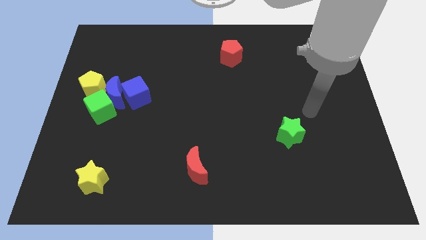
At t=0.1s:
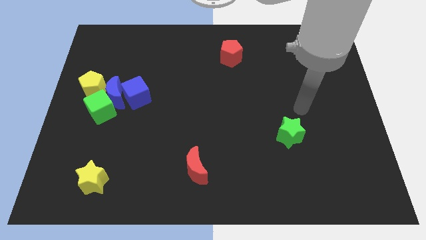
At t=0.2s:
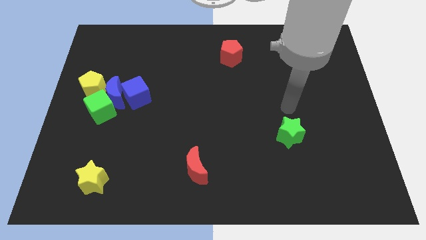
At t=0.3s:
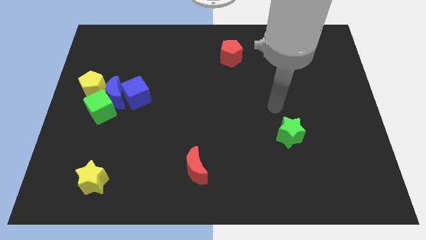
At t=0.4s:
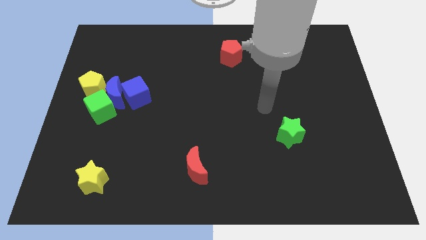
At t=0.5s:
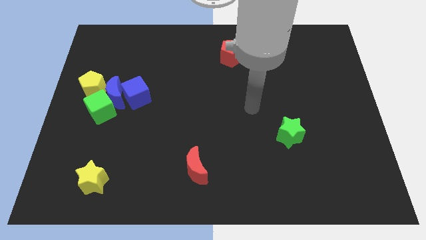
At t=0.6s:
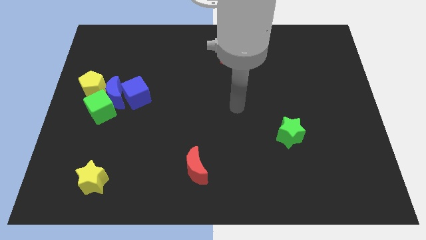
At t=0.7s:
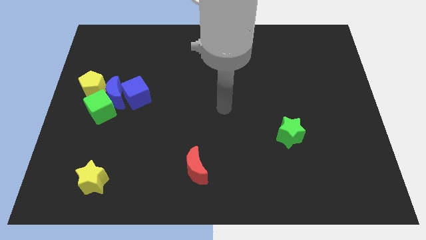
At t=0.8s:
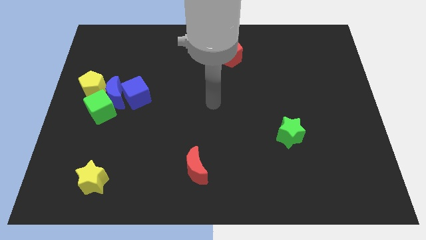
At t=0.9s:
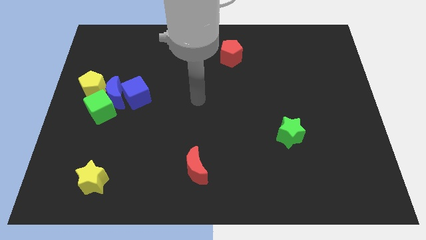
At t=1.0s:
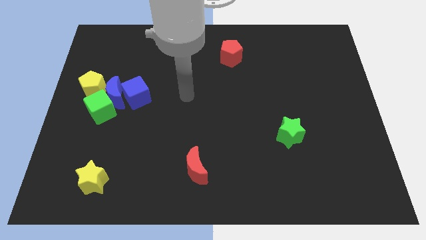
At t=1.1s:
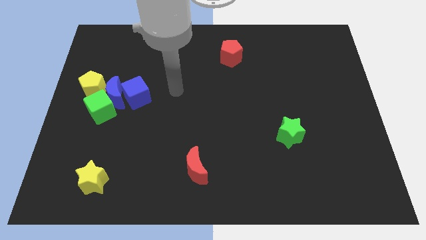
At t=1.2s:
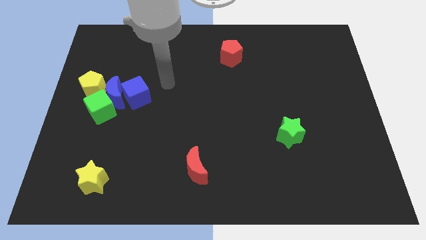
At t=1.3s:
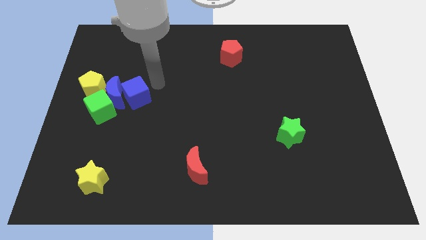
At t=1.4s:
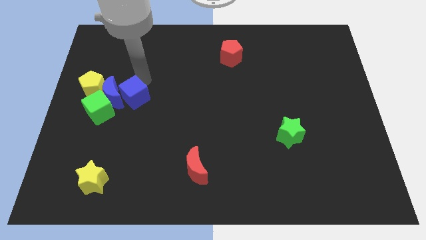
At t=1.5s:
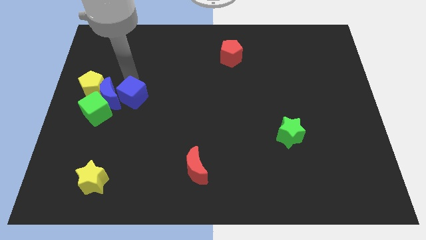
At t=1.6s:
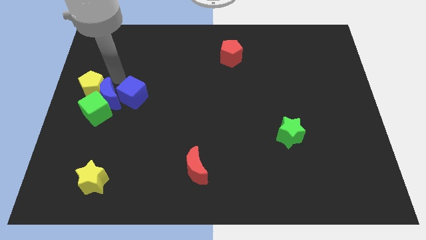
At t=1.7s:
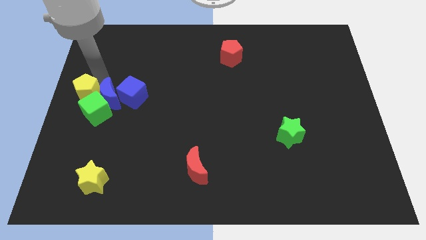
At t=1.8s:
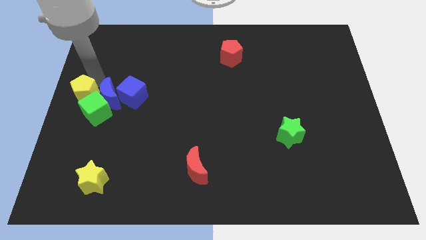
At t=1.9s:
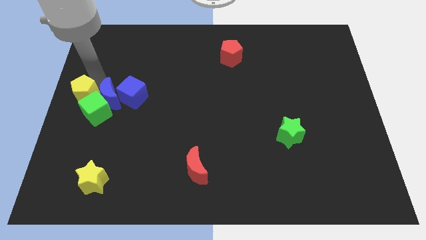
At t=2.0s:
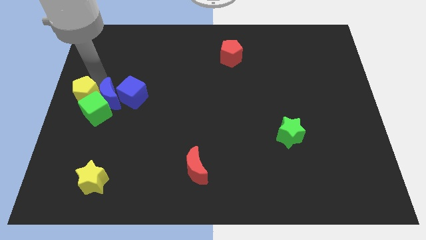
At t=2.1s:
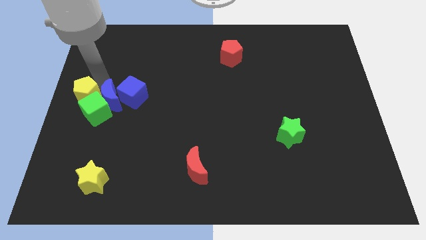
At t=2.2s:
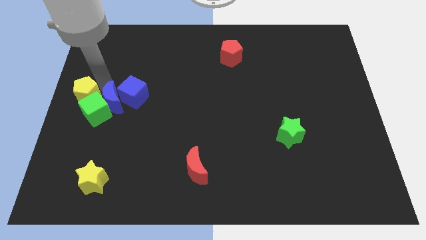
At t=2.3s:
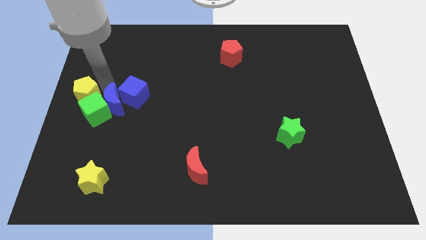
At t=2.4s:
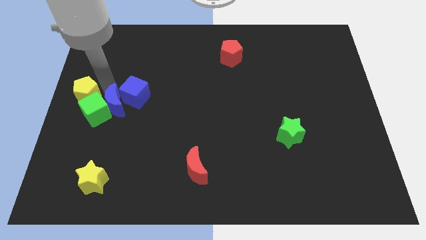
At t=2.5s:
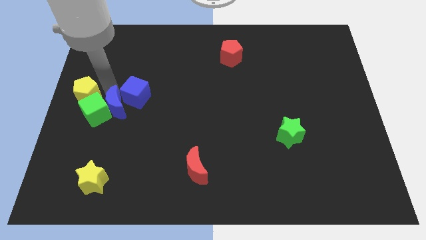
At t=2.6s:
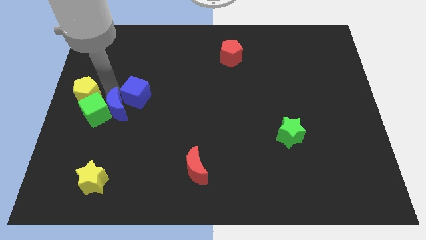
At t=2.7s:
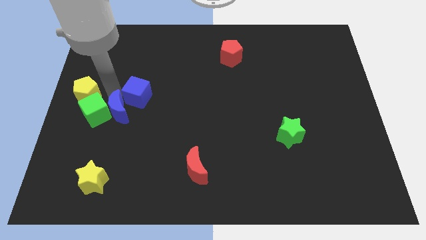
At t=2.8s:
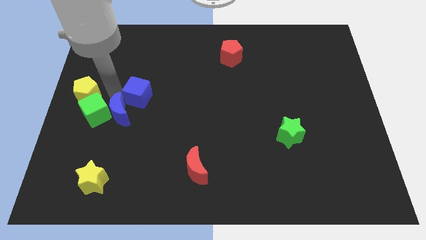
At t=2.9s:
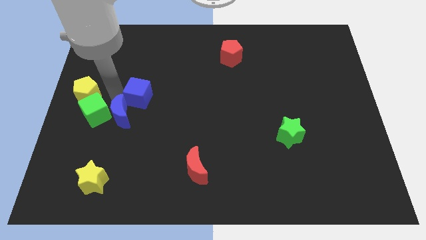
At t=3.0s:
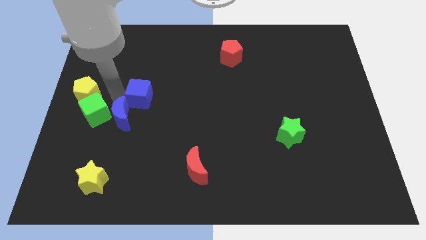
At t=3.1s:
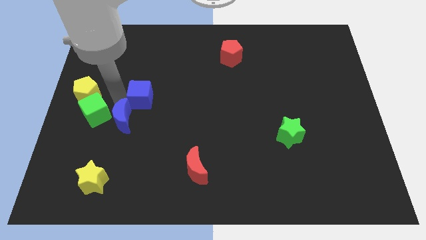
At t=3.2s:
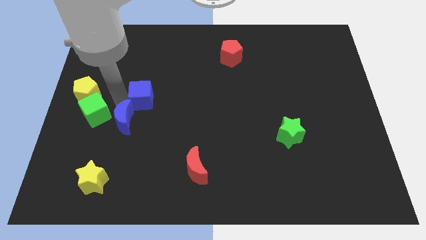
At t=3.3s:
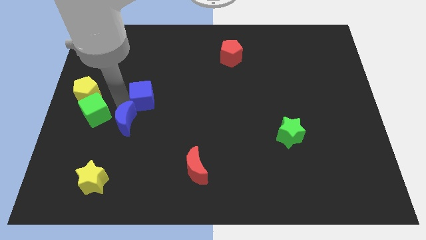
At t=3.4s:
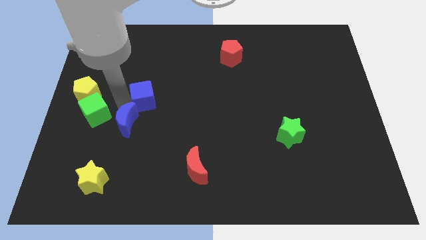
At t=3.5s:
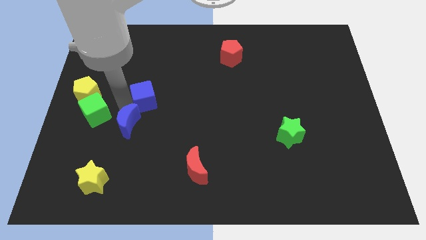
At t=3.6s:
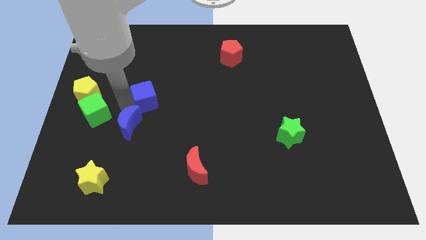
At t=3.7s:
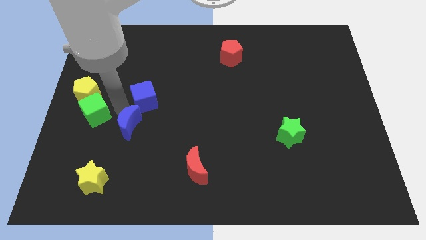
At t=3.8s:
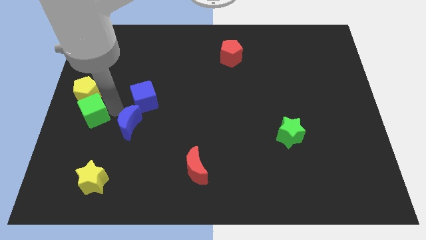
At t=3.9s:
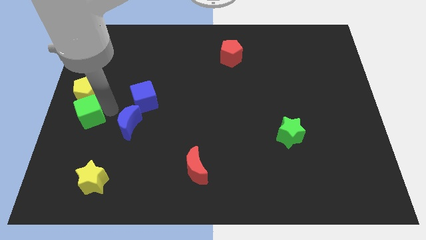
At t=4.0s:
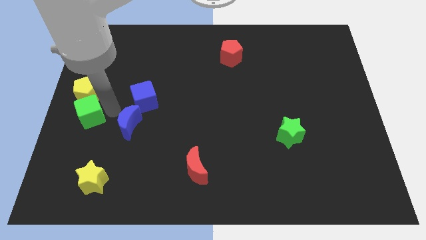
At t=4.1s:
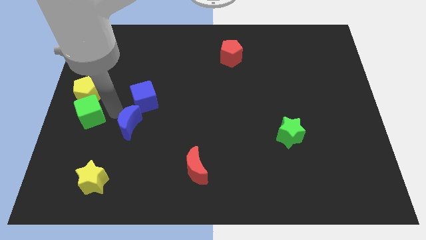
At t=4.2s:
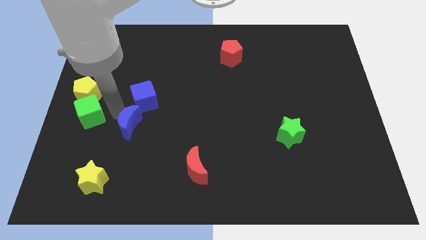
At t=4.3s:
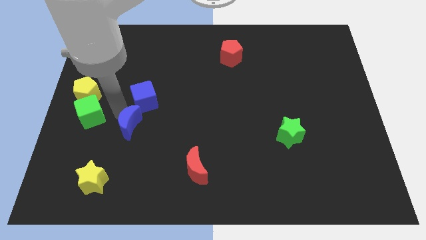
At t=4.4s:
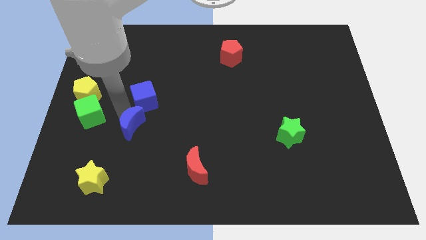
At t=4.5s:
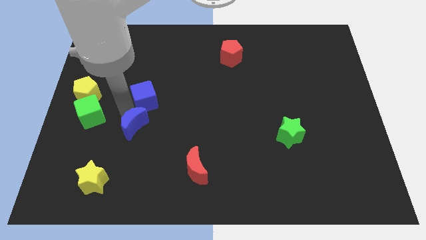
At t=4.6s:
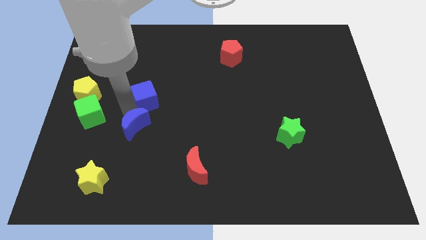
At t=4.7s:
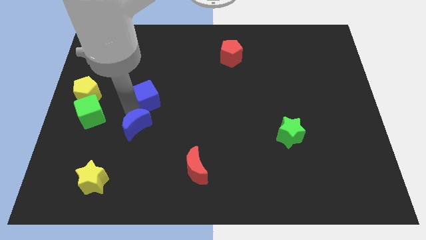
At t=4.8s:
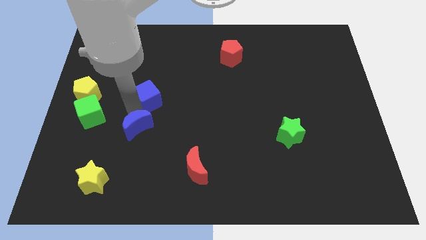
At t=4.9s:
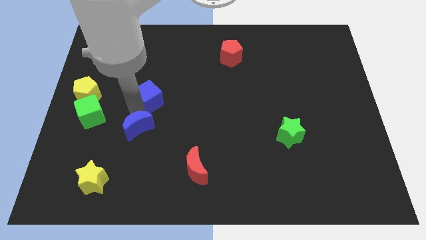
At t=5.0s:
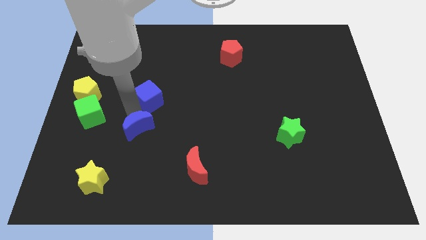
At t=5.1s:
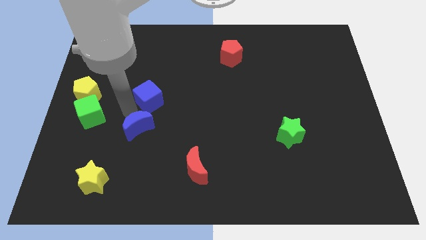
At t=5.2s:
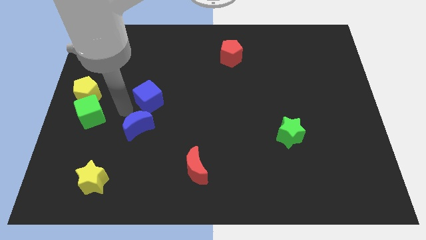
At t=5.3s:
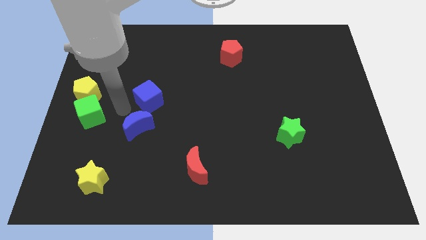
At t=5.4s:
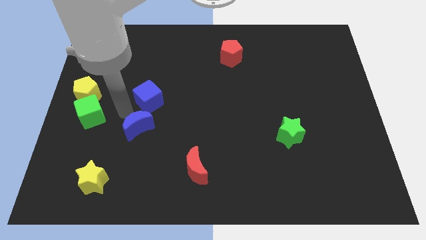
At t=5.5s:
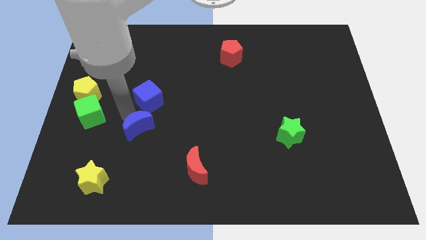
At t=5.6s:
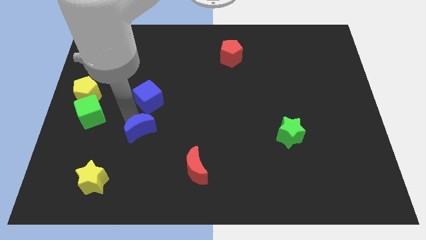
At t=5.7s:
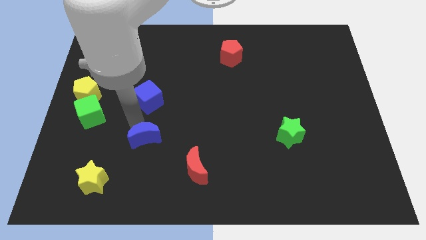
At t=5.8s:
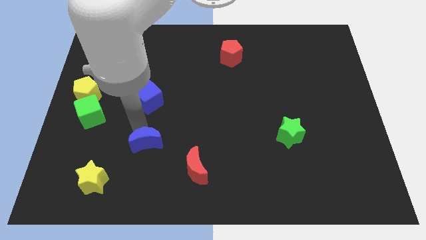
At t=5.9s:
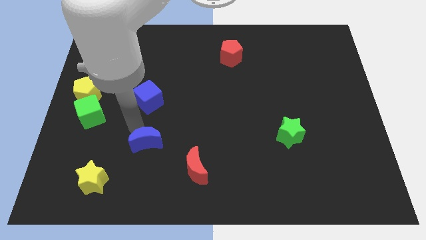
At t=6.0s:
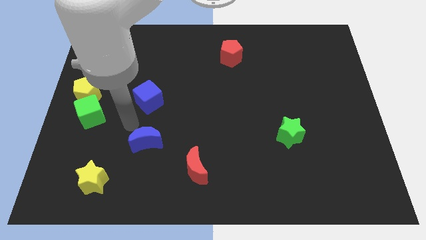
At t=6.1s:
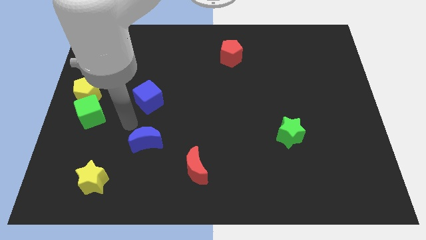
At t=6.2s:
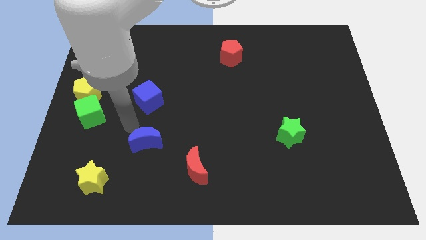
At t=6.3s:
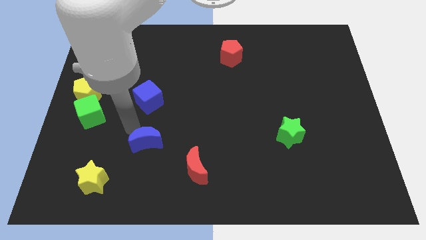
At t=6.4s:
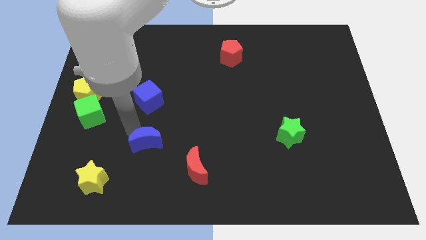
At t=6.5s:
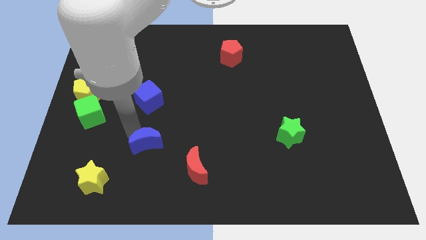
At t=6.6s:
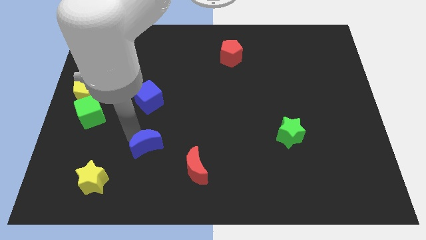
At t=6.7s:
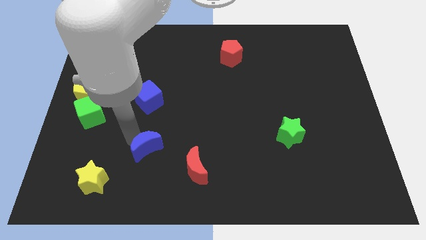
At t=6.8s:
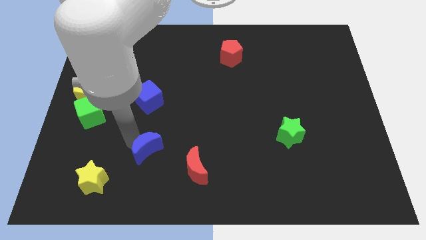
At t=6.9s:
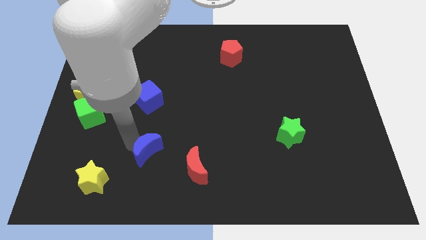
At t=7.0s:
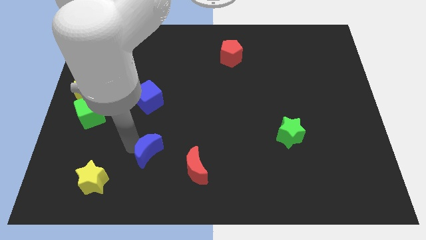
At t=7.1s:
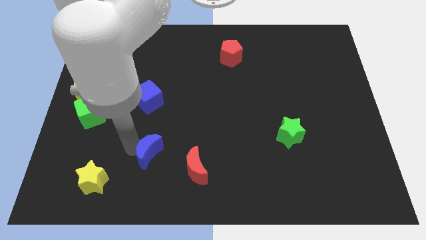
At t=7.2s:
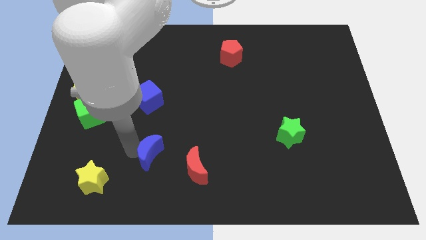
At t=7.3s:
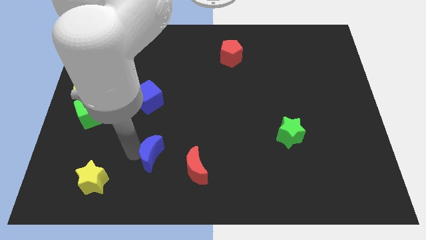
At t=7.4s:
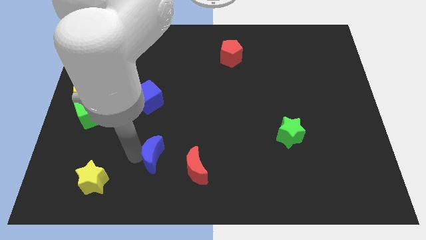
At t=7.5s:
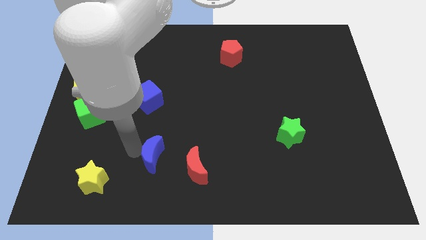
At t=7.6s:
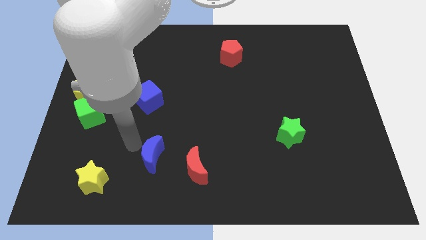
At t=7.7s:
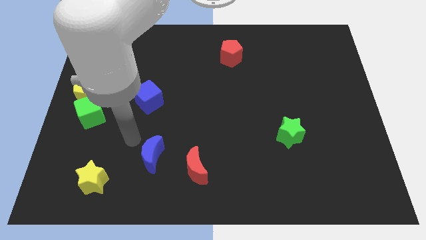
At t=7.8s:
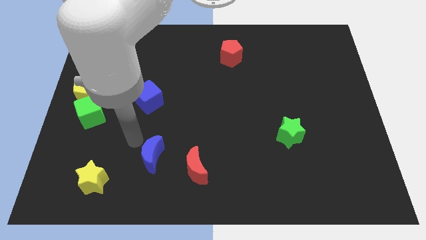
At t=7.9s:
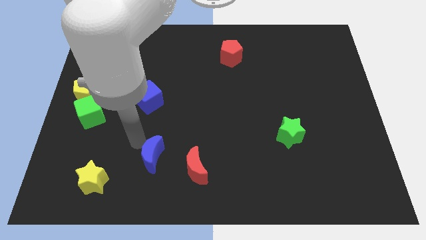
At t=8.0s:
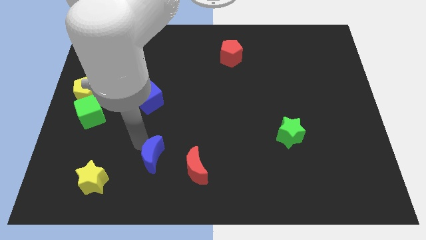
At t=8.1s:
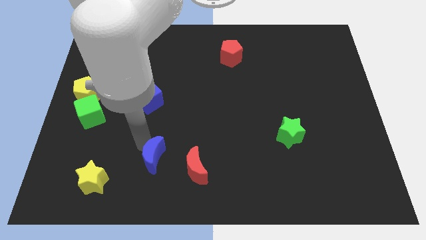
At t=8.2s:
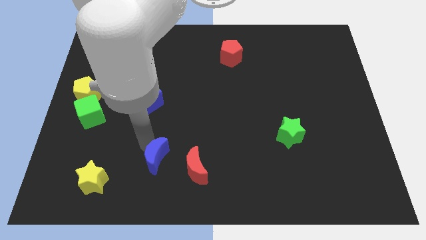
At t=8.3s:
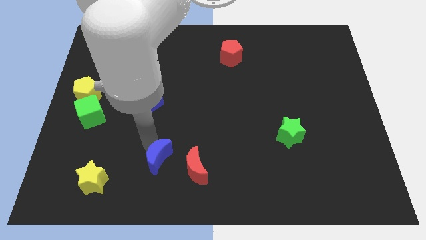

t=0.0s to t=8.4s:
slide the blue moon downwards and right diagonally

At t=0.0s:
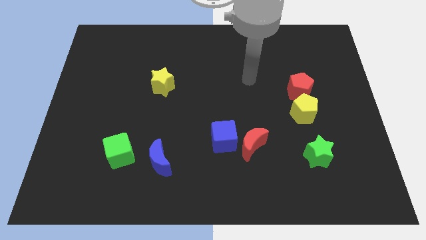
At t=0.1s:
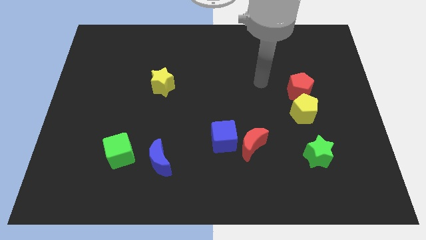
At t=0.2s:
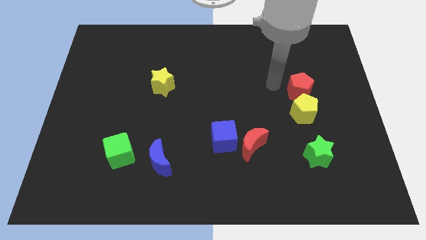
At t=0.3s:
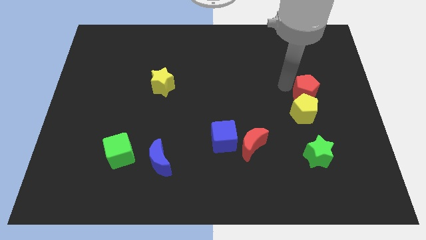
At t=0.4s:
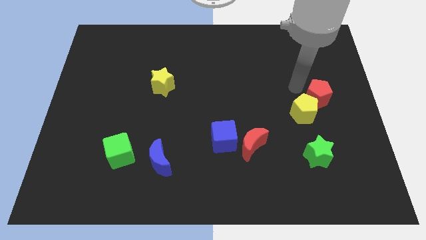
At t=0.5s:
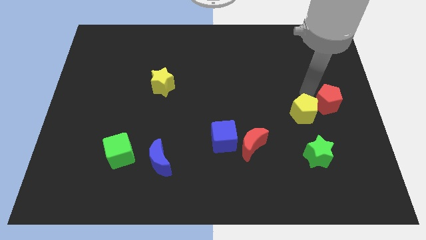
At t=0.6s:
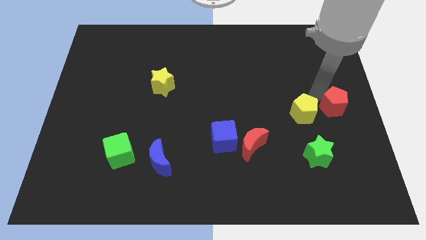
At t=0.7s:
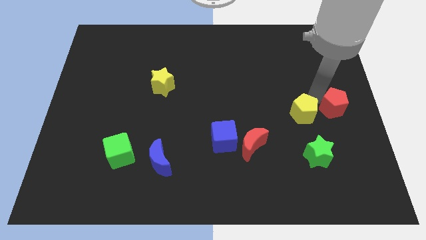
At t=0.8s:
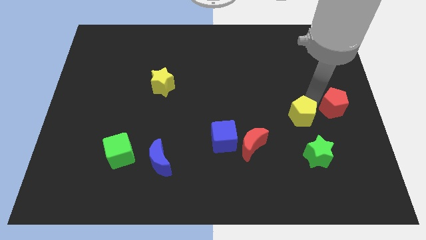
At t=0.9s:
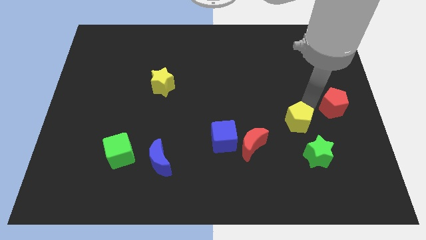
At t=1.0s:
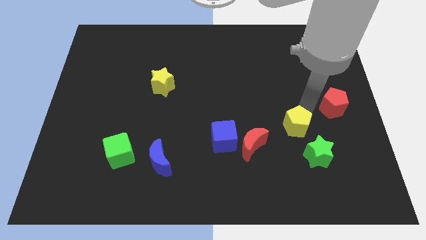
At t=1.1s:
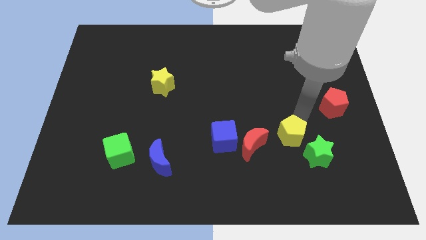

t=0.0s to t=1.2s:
slide the yellow pentagon down and then left a little bit
